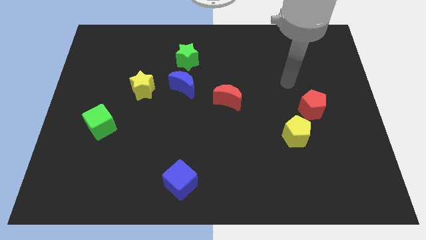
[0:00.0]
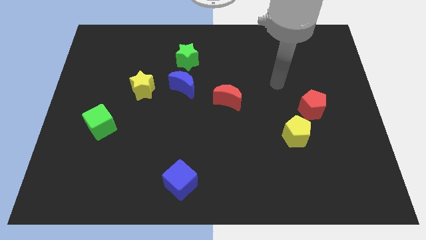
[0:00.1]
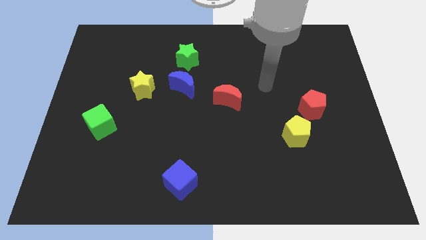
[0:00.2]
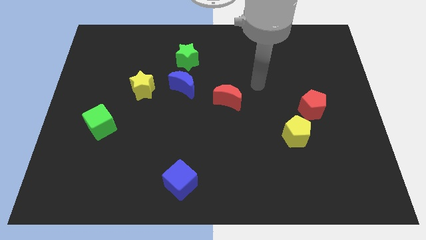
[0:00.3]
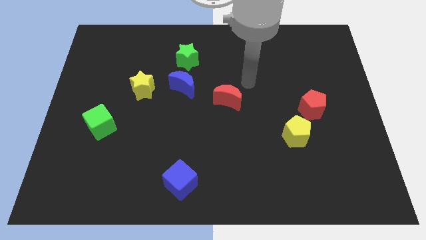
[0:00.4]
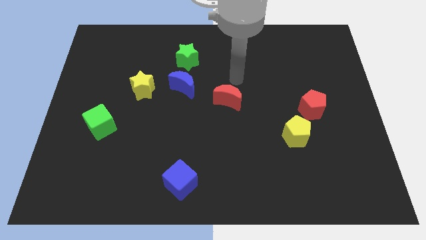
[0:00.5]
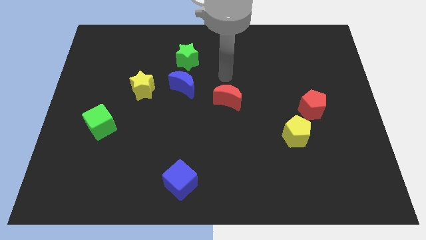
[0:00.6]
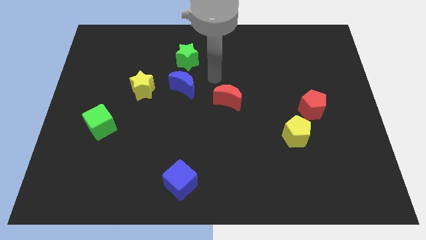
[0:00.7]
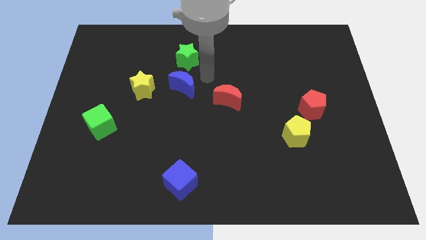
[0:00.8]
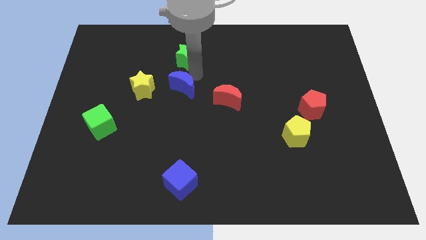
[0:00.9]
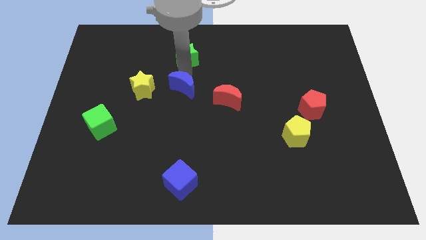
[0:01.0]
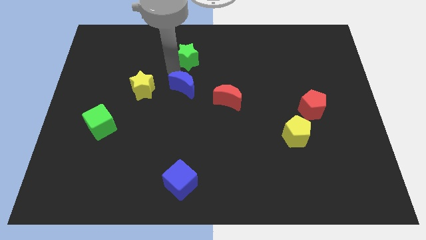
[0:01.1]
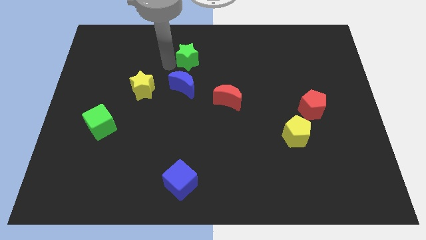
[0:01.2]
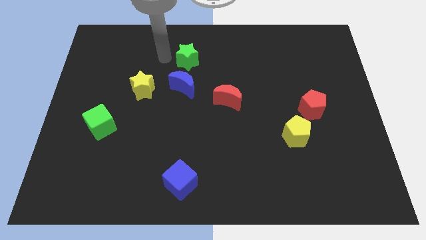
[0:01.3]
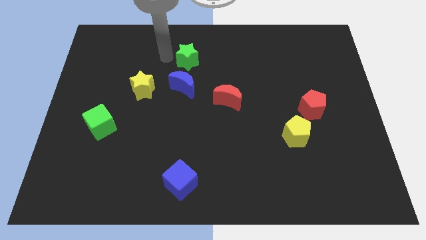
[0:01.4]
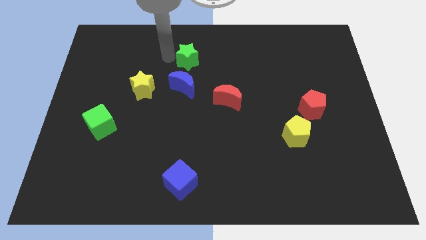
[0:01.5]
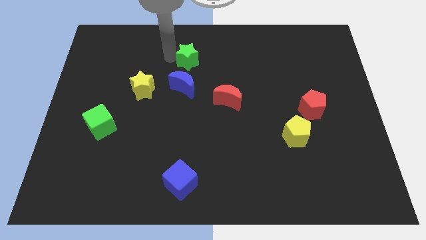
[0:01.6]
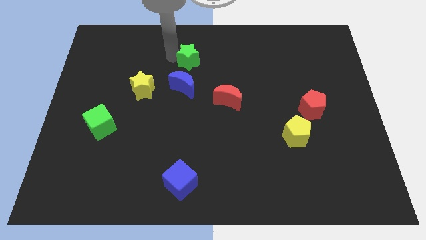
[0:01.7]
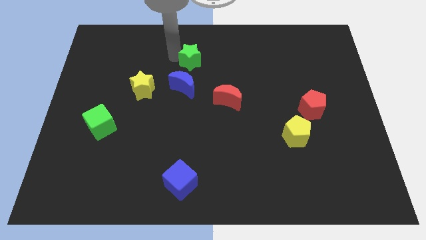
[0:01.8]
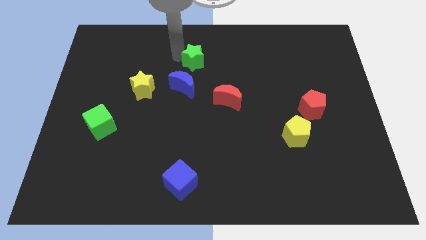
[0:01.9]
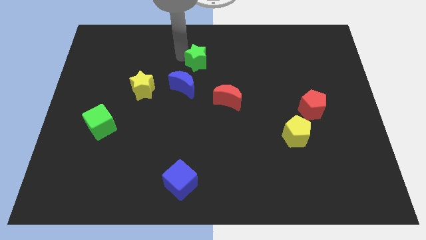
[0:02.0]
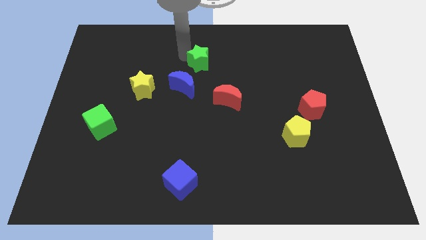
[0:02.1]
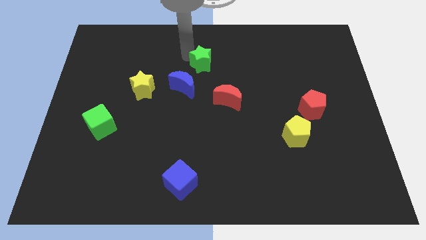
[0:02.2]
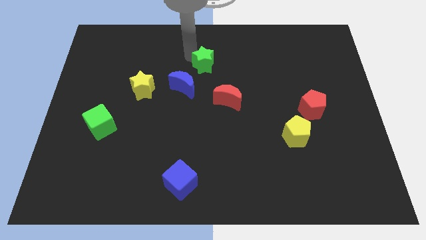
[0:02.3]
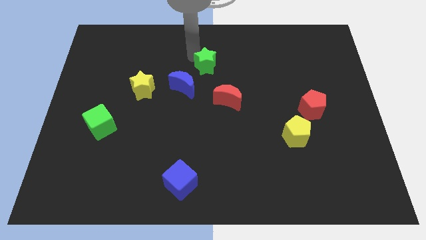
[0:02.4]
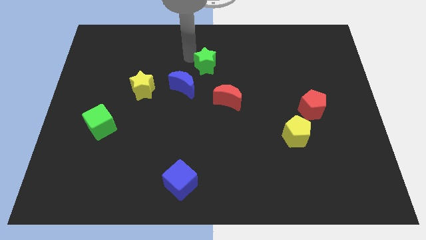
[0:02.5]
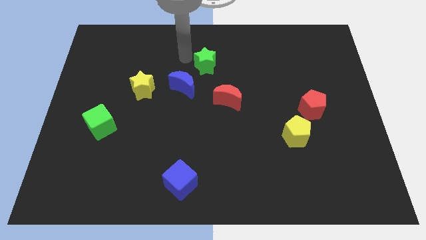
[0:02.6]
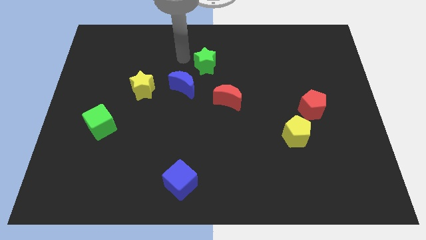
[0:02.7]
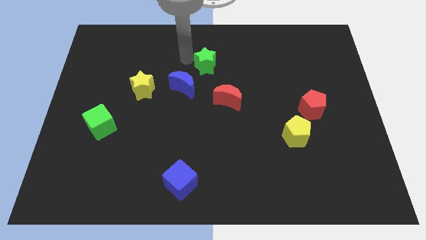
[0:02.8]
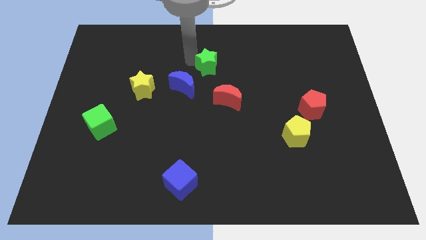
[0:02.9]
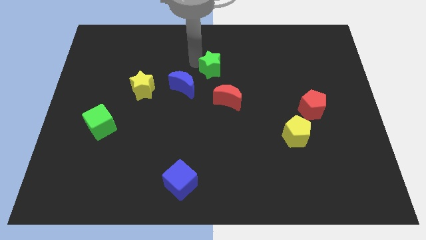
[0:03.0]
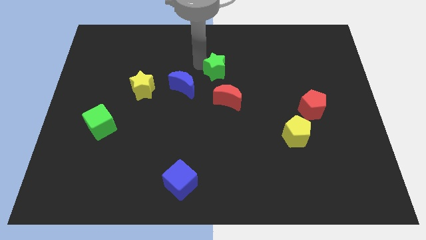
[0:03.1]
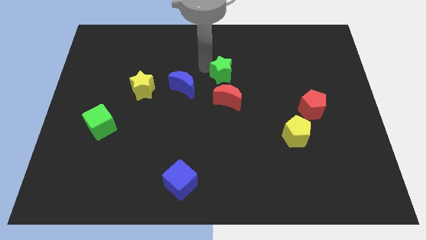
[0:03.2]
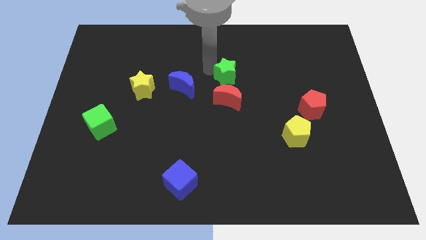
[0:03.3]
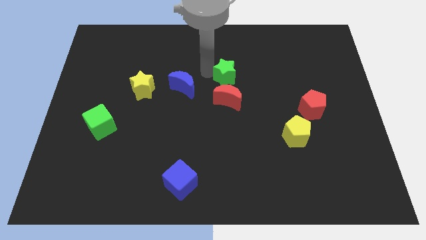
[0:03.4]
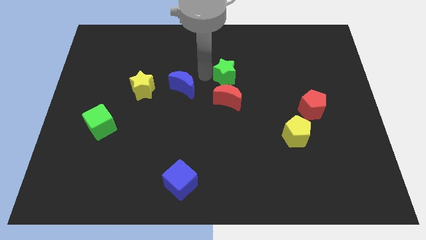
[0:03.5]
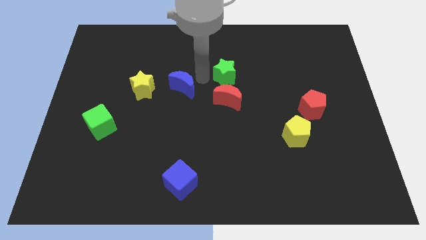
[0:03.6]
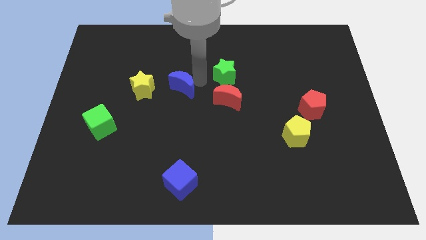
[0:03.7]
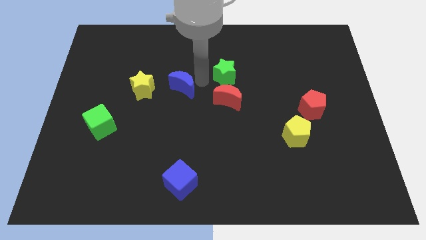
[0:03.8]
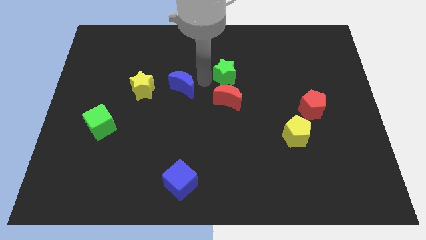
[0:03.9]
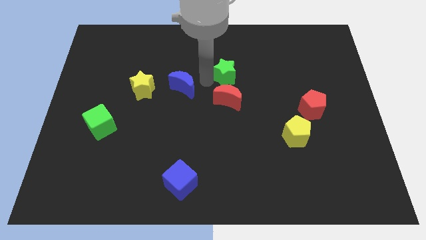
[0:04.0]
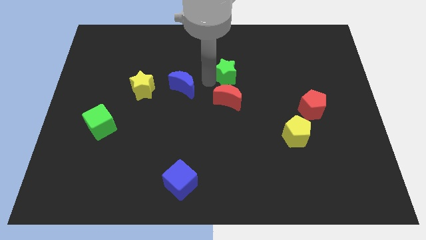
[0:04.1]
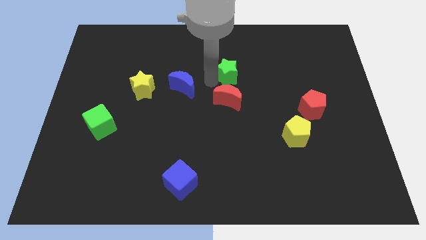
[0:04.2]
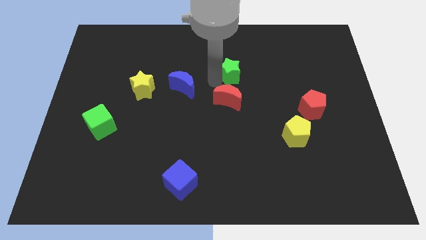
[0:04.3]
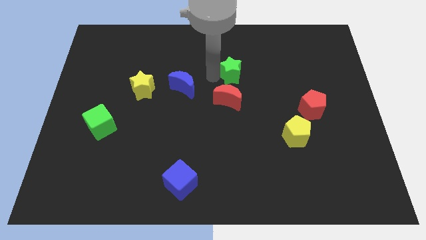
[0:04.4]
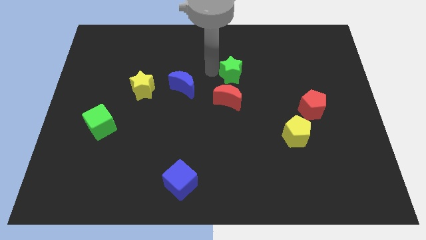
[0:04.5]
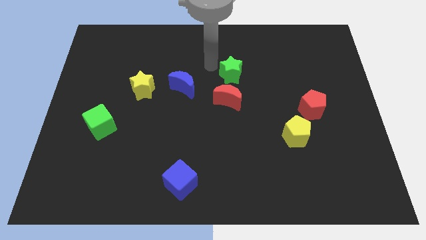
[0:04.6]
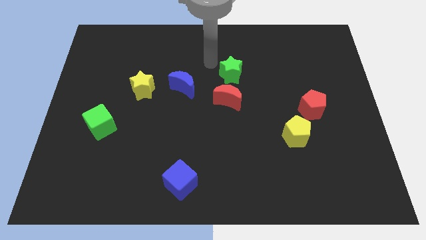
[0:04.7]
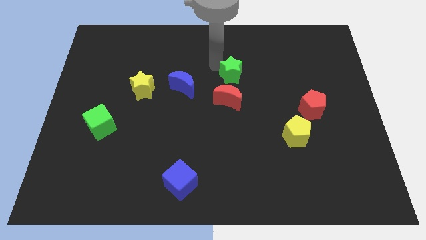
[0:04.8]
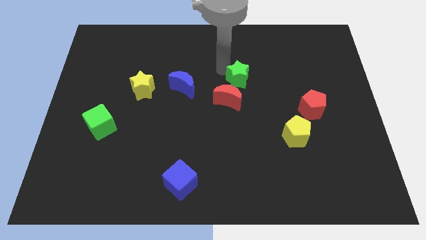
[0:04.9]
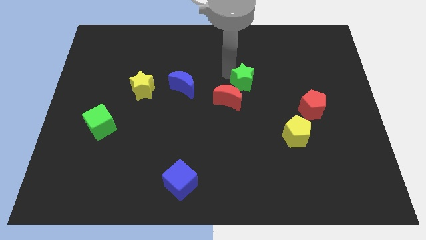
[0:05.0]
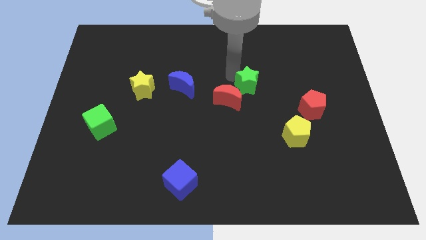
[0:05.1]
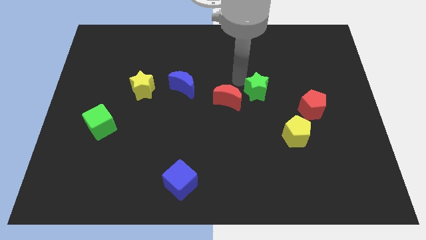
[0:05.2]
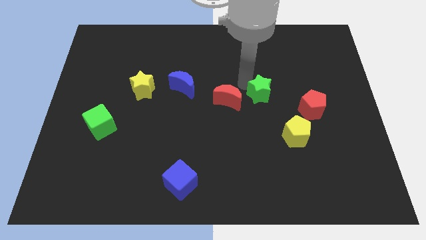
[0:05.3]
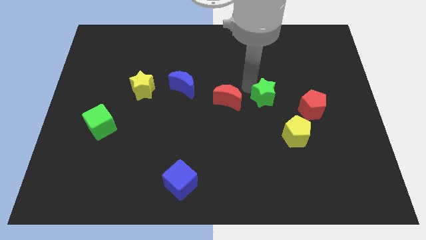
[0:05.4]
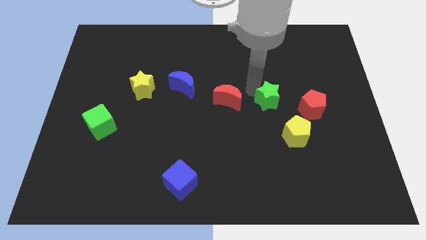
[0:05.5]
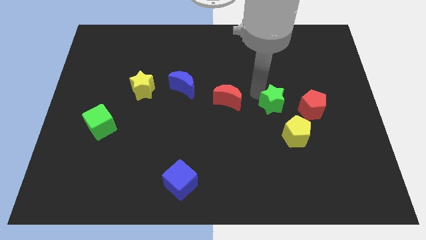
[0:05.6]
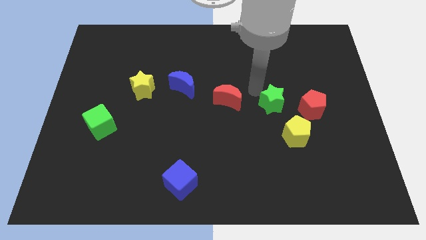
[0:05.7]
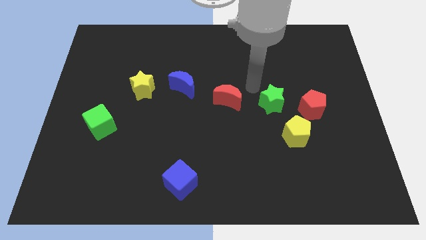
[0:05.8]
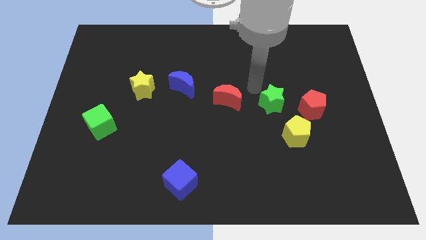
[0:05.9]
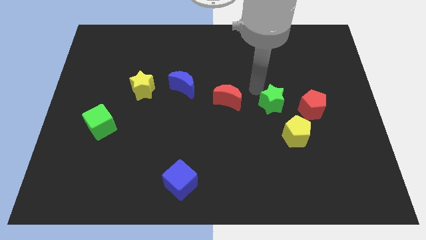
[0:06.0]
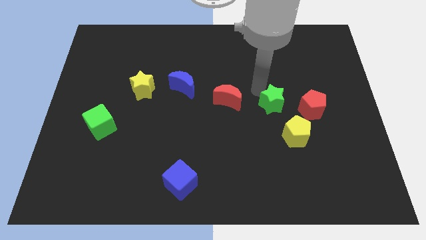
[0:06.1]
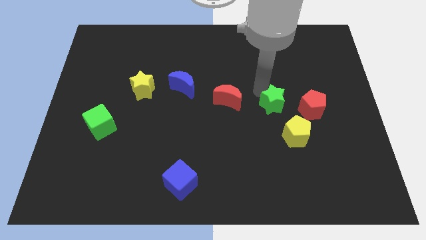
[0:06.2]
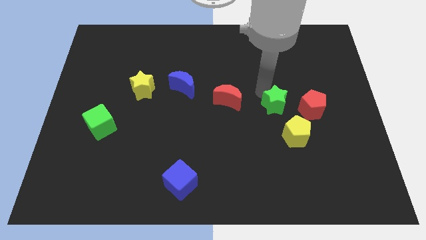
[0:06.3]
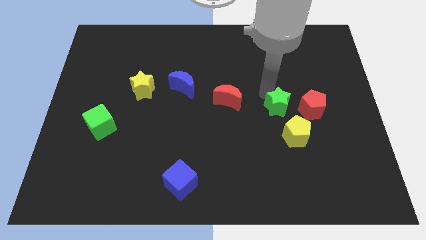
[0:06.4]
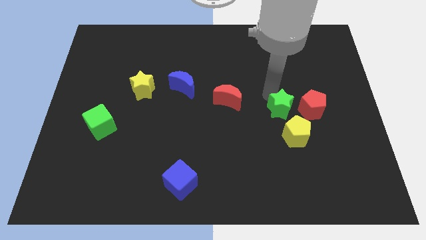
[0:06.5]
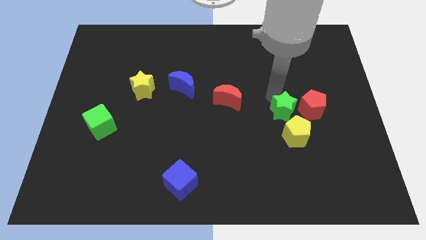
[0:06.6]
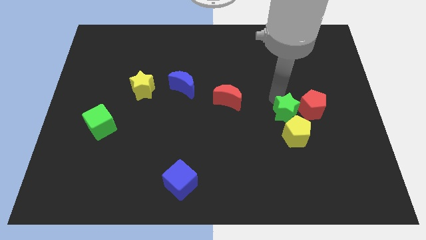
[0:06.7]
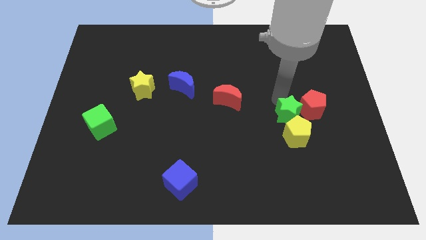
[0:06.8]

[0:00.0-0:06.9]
slide the green star next to the yellow pentagon
